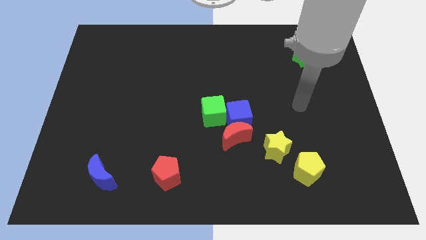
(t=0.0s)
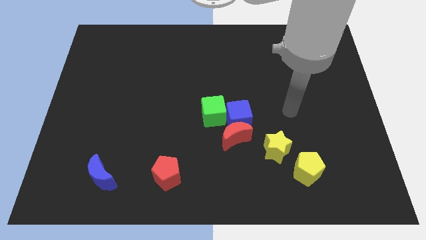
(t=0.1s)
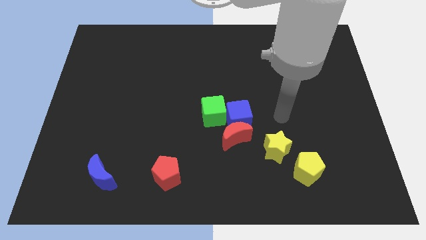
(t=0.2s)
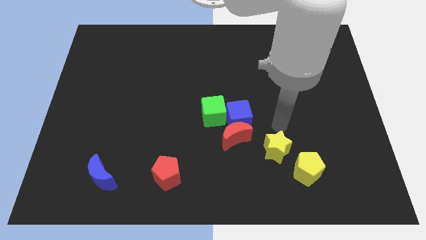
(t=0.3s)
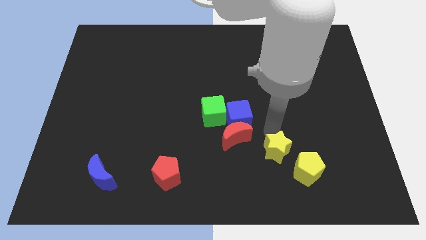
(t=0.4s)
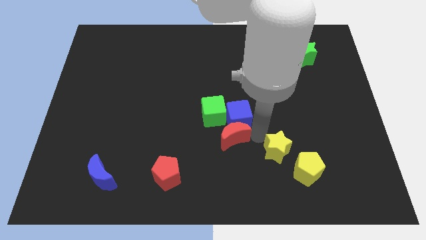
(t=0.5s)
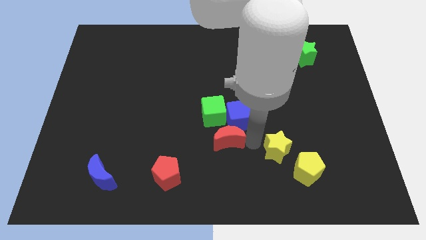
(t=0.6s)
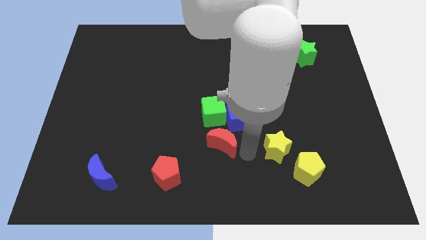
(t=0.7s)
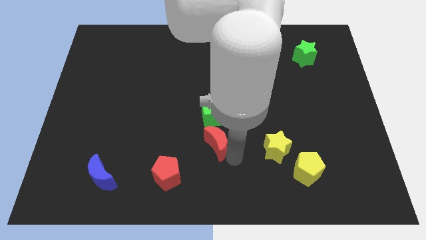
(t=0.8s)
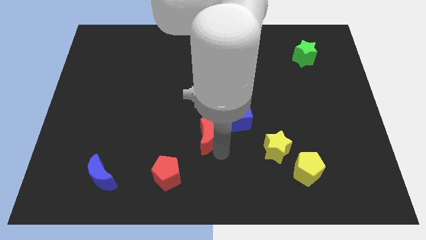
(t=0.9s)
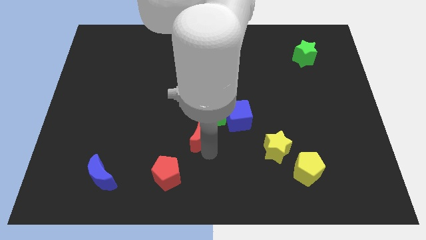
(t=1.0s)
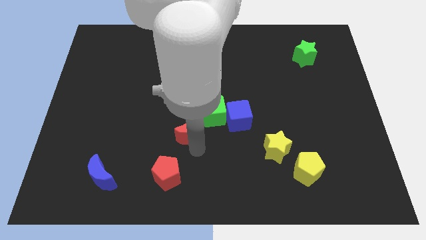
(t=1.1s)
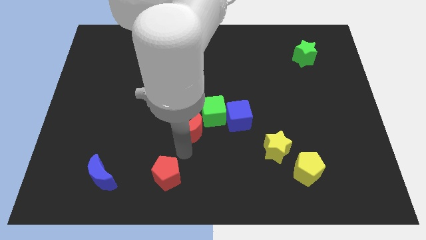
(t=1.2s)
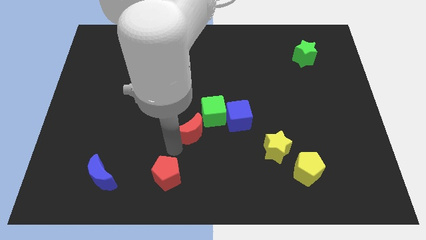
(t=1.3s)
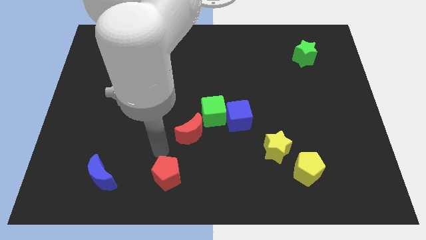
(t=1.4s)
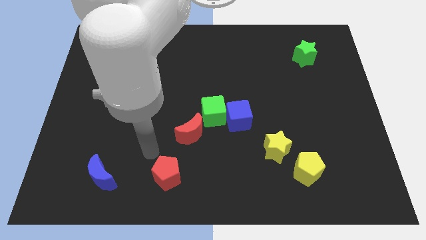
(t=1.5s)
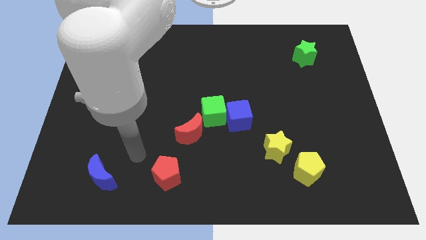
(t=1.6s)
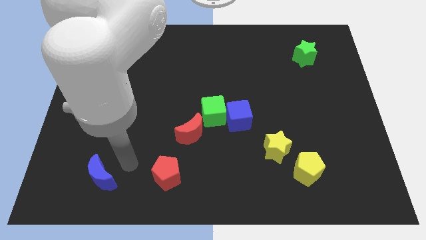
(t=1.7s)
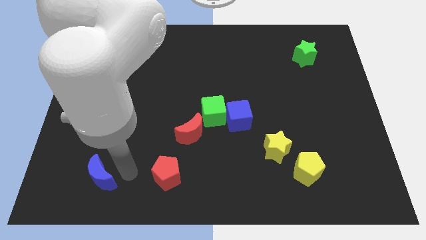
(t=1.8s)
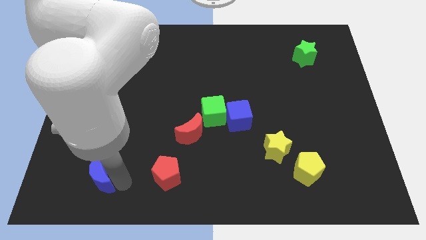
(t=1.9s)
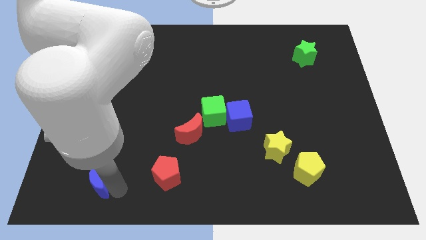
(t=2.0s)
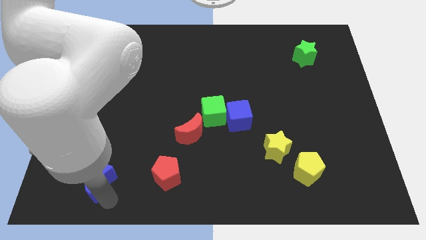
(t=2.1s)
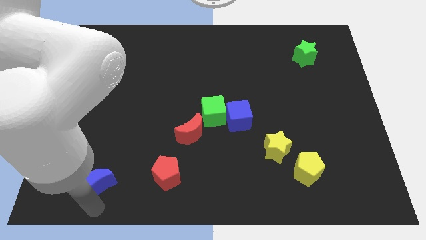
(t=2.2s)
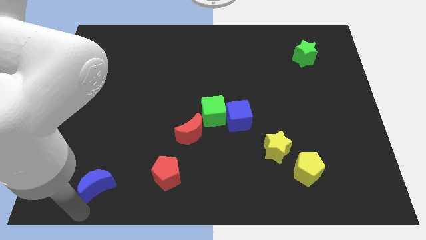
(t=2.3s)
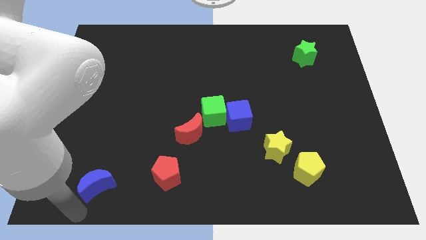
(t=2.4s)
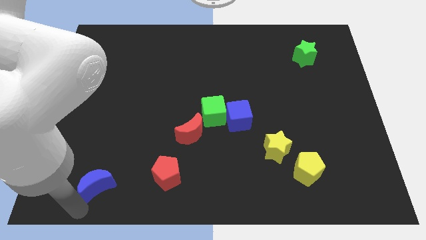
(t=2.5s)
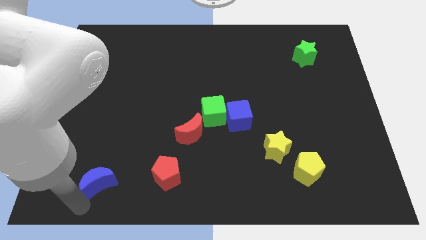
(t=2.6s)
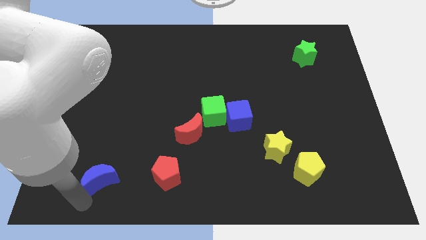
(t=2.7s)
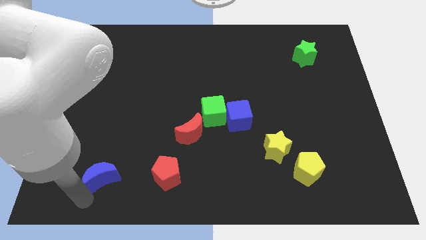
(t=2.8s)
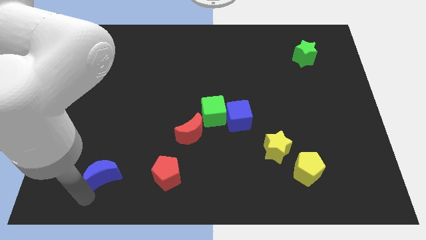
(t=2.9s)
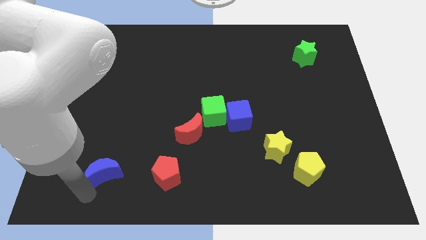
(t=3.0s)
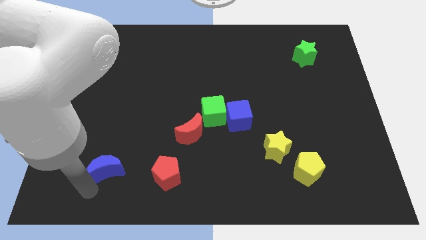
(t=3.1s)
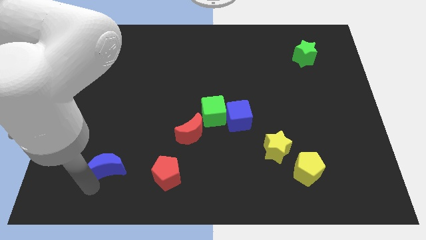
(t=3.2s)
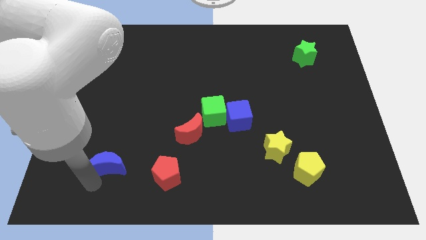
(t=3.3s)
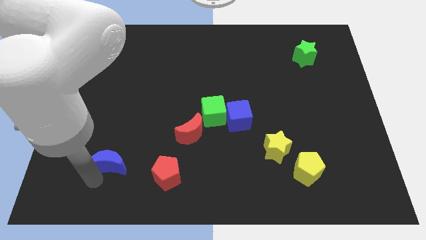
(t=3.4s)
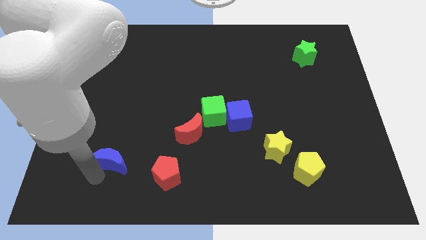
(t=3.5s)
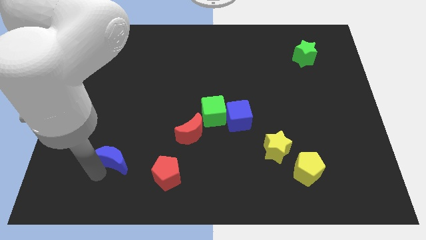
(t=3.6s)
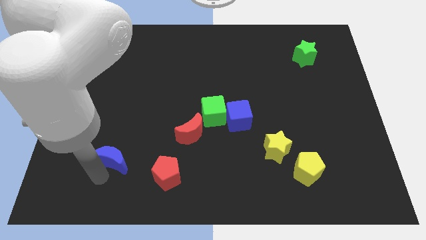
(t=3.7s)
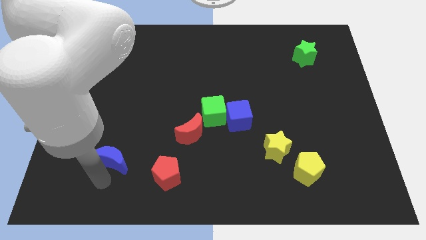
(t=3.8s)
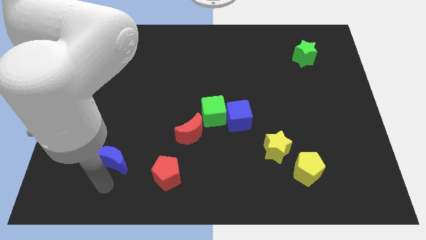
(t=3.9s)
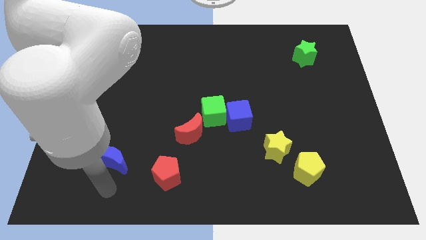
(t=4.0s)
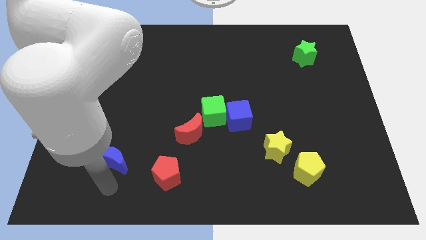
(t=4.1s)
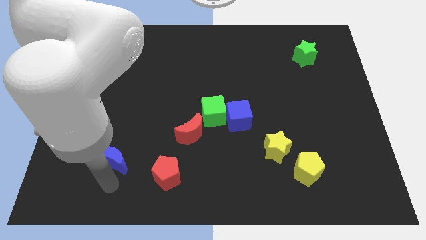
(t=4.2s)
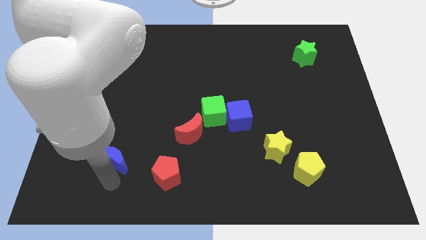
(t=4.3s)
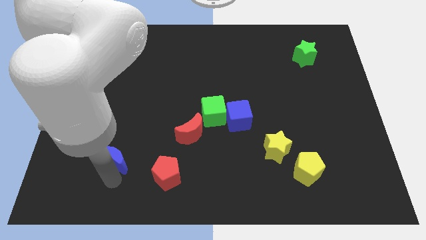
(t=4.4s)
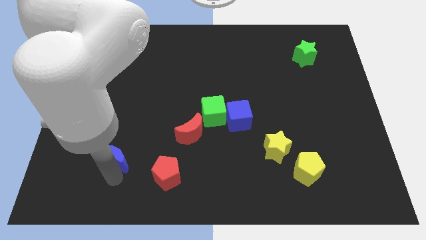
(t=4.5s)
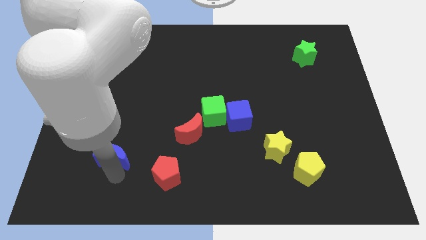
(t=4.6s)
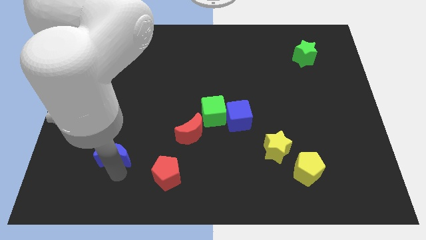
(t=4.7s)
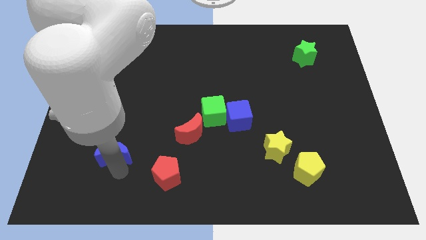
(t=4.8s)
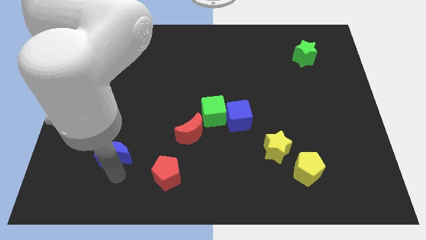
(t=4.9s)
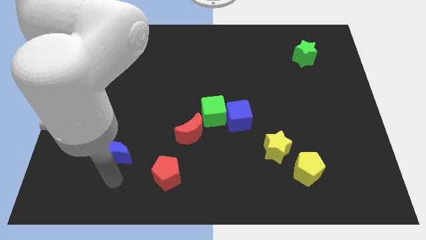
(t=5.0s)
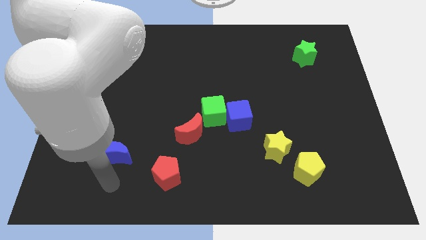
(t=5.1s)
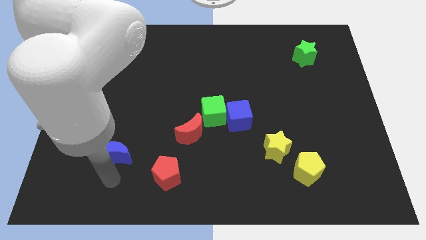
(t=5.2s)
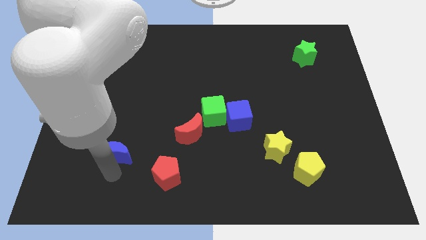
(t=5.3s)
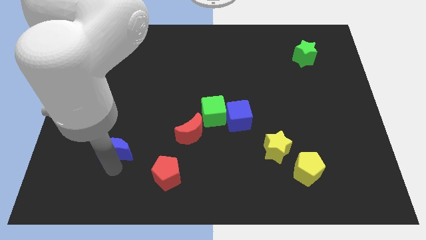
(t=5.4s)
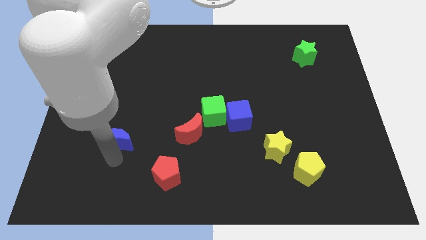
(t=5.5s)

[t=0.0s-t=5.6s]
slide the blue moon up a little bit

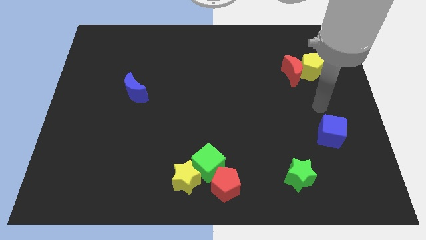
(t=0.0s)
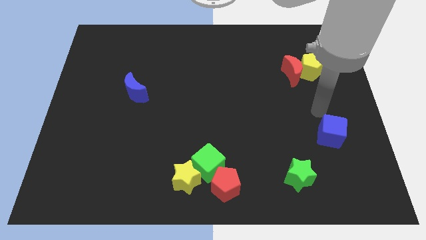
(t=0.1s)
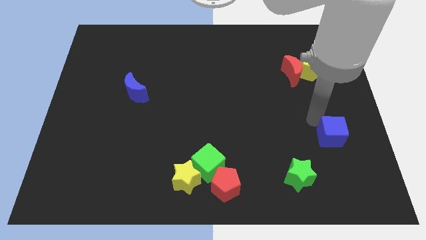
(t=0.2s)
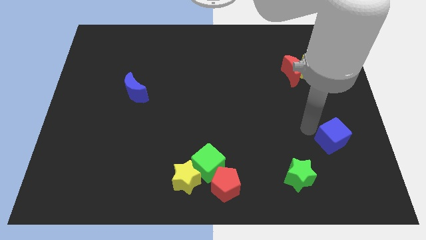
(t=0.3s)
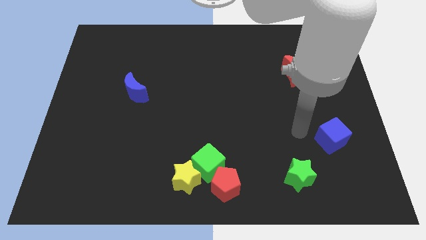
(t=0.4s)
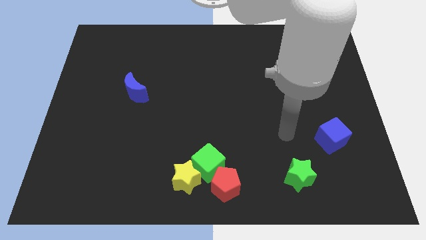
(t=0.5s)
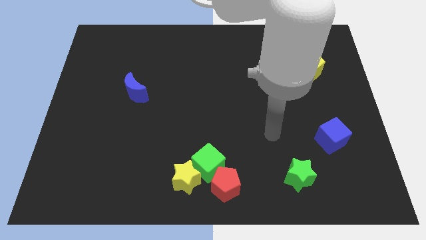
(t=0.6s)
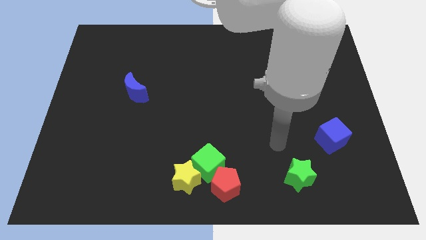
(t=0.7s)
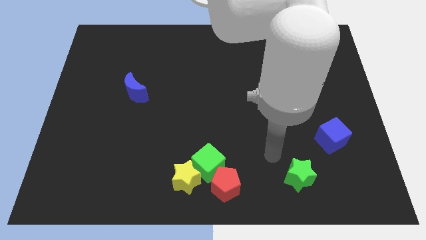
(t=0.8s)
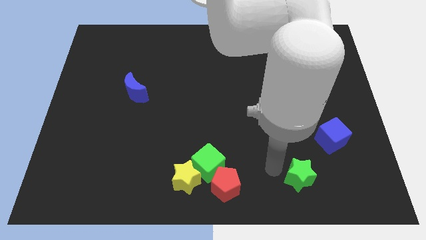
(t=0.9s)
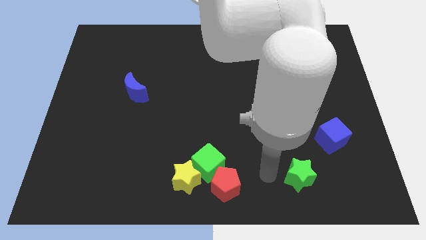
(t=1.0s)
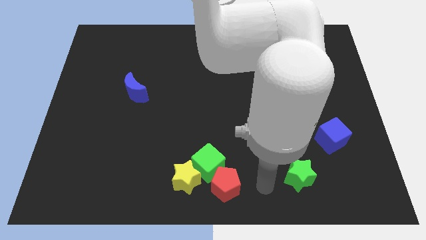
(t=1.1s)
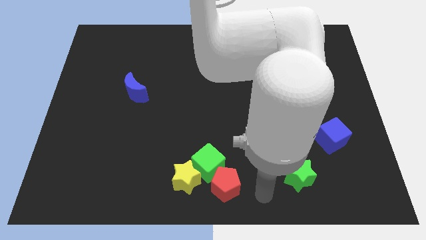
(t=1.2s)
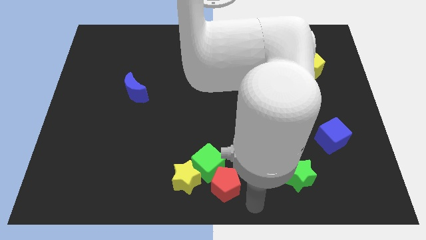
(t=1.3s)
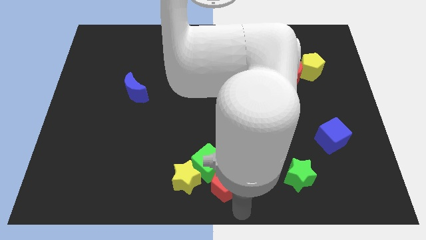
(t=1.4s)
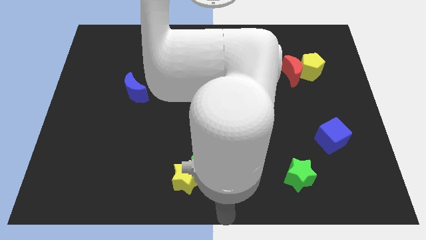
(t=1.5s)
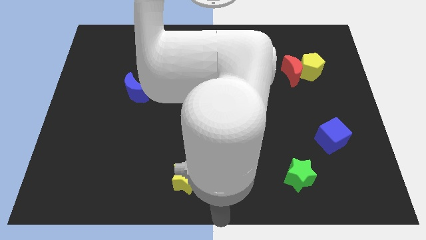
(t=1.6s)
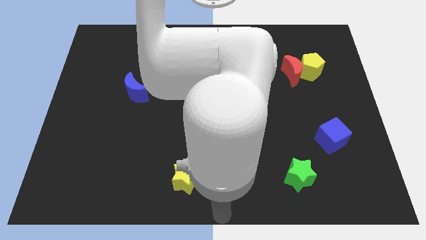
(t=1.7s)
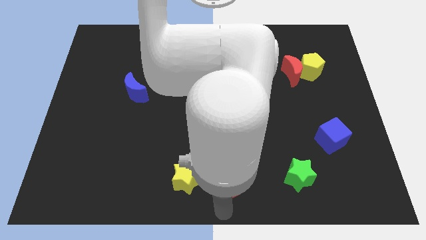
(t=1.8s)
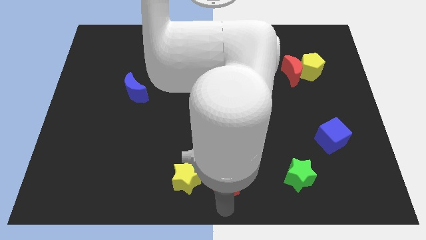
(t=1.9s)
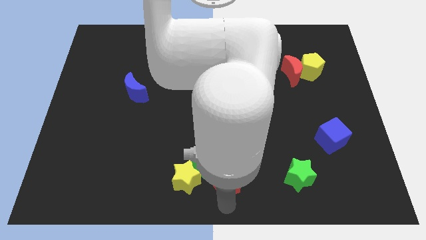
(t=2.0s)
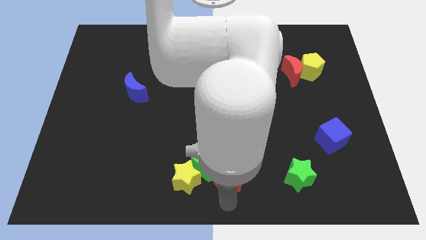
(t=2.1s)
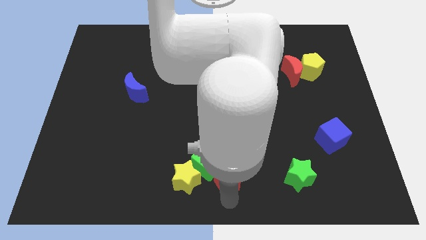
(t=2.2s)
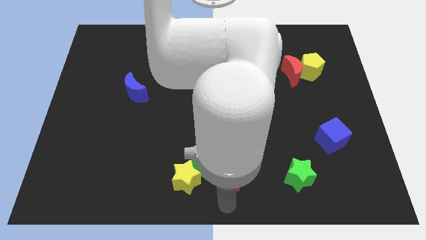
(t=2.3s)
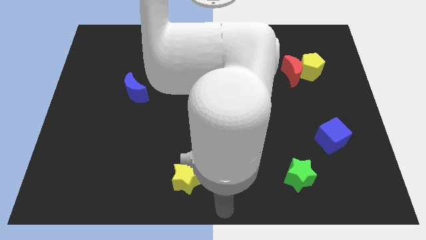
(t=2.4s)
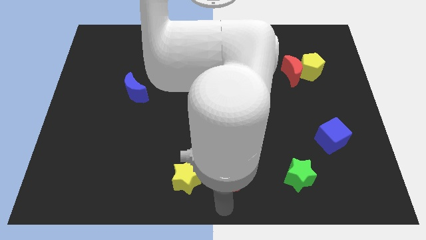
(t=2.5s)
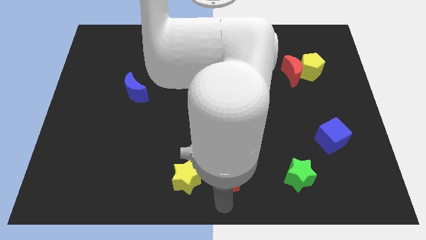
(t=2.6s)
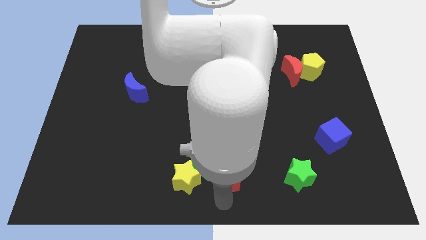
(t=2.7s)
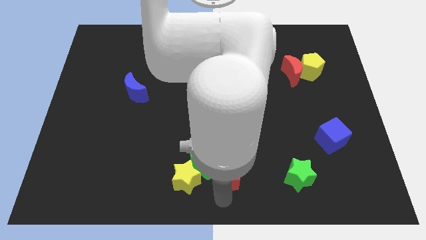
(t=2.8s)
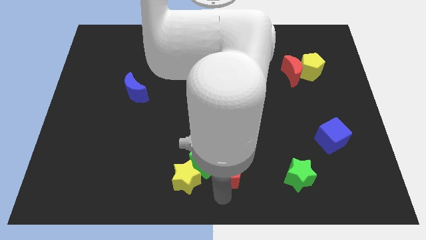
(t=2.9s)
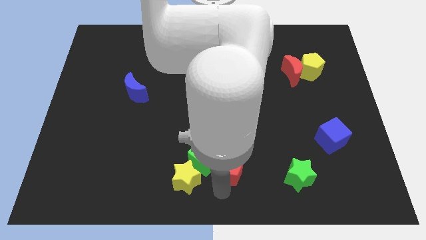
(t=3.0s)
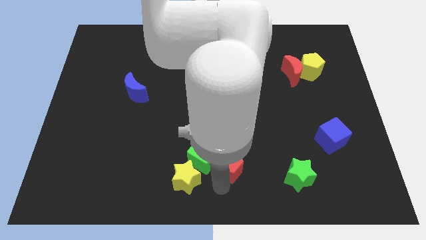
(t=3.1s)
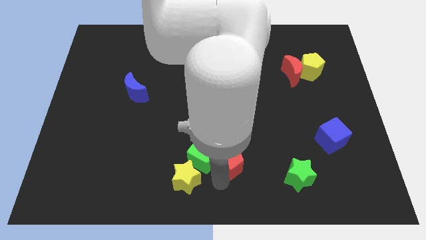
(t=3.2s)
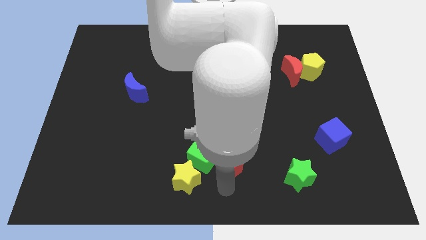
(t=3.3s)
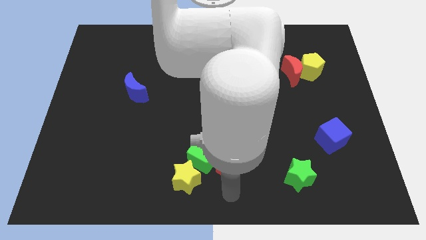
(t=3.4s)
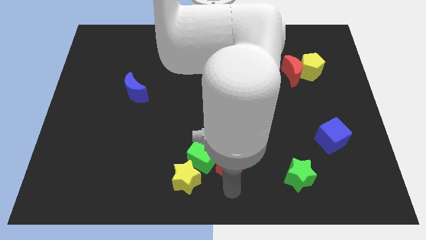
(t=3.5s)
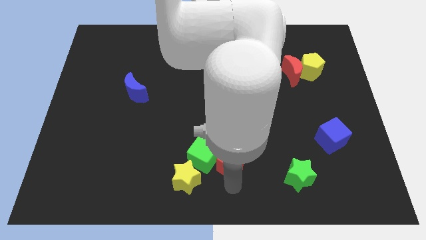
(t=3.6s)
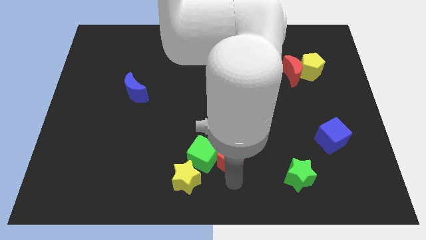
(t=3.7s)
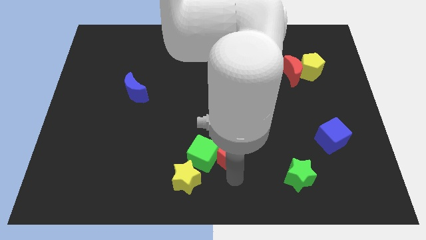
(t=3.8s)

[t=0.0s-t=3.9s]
slightly slide the red pentagon up
